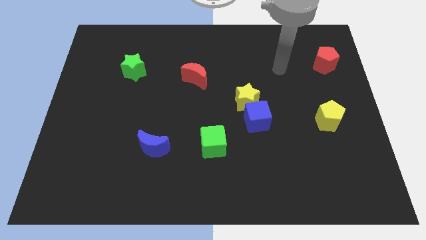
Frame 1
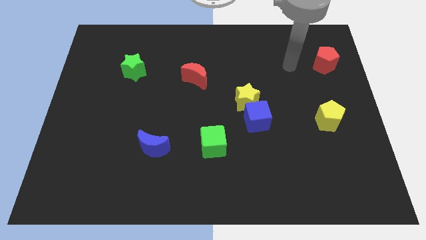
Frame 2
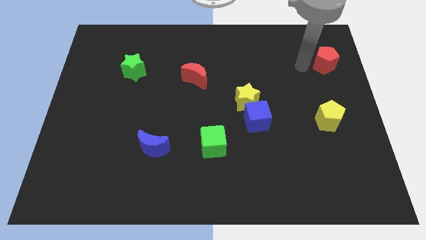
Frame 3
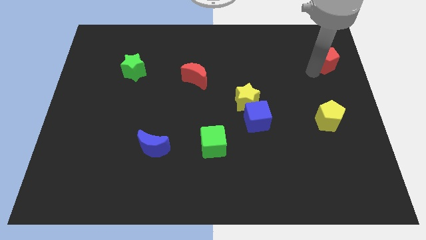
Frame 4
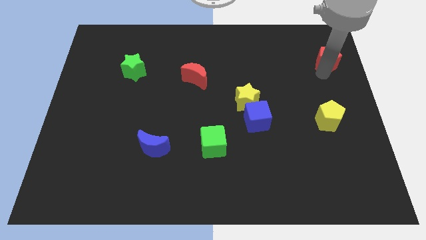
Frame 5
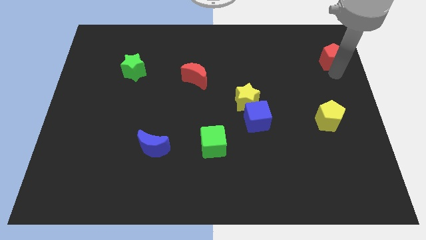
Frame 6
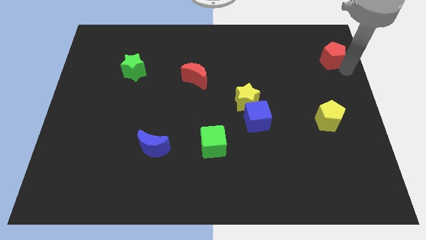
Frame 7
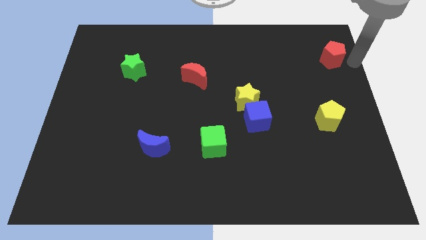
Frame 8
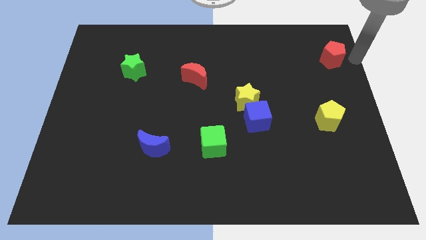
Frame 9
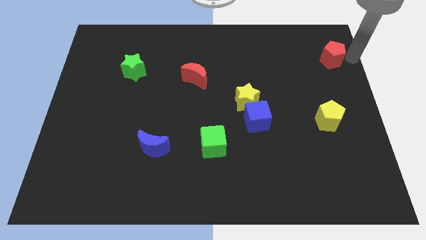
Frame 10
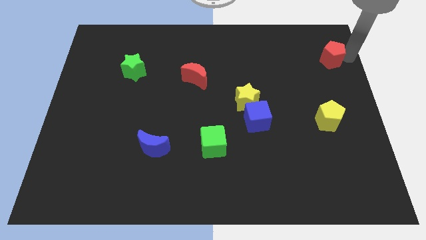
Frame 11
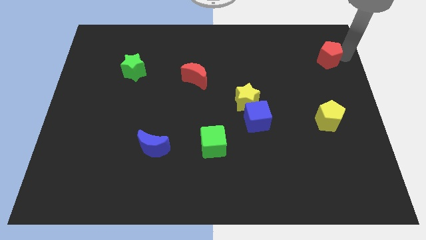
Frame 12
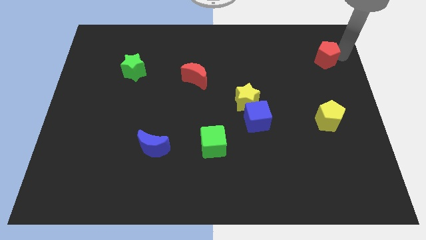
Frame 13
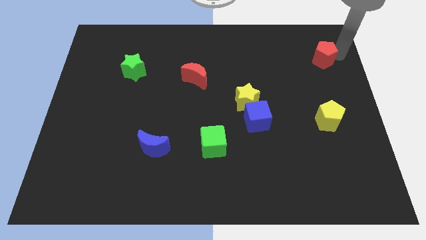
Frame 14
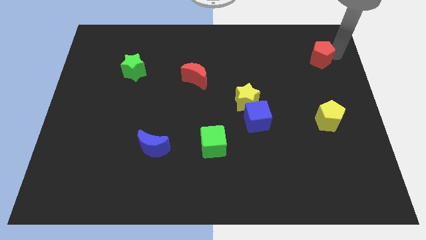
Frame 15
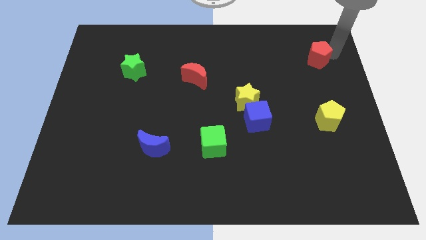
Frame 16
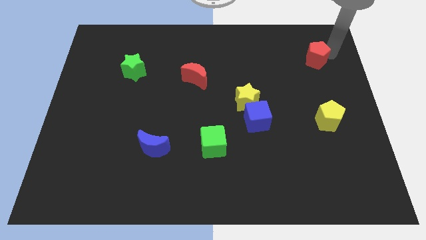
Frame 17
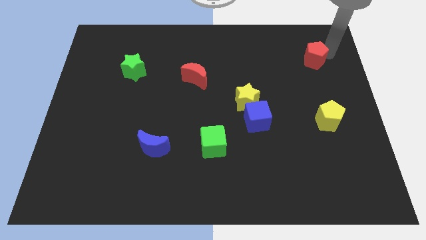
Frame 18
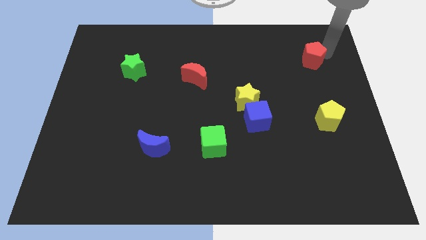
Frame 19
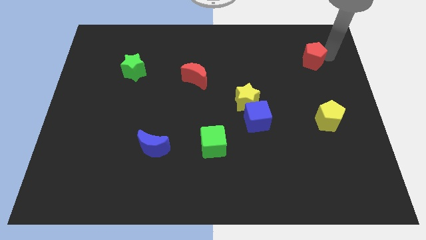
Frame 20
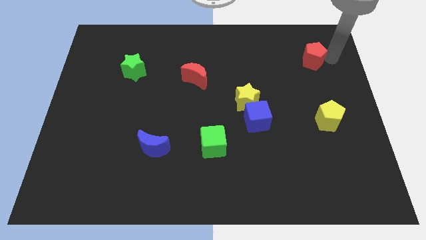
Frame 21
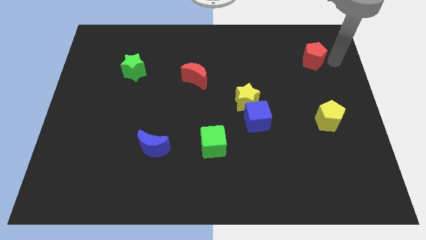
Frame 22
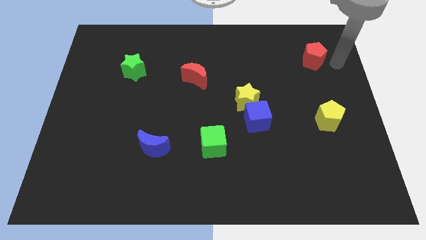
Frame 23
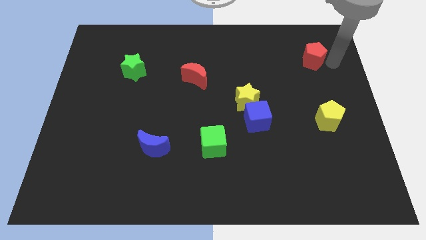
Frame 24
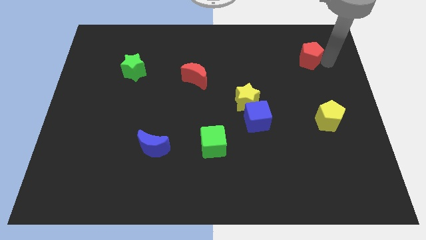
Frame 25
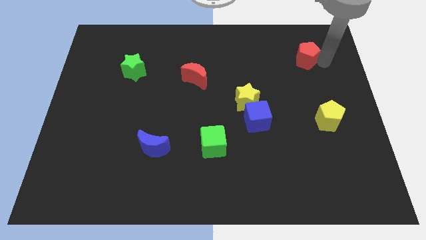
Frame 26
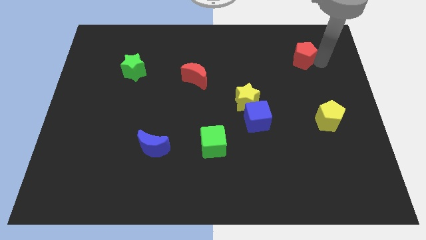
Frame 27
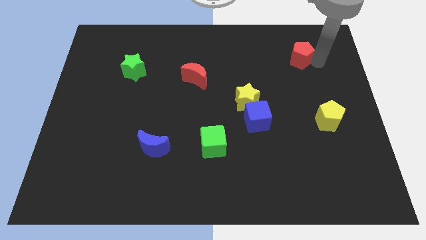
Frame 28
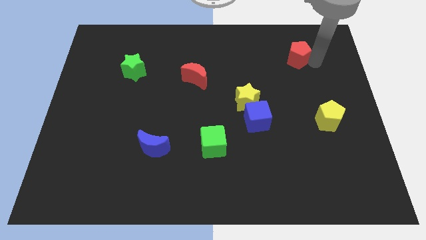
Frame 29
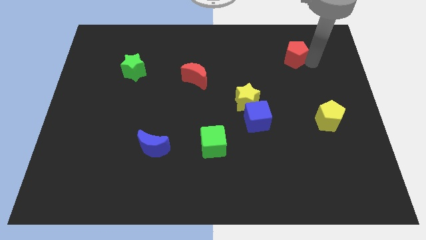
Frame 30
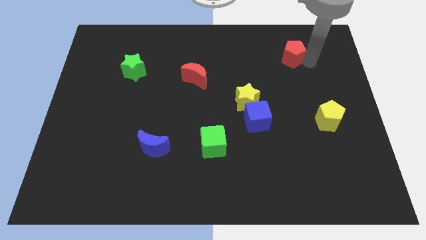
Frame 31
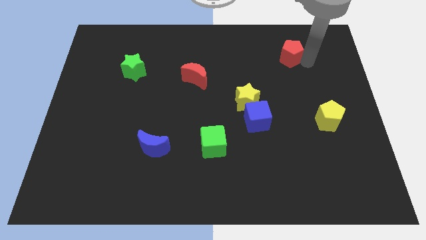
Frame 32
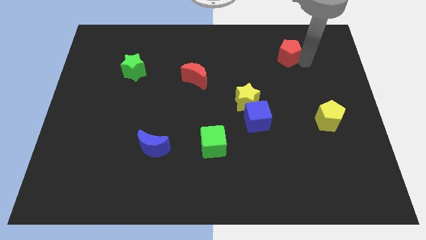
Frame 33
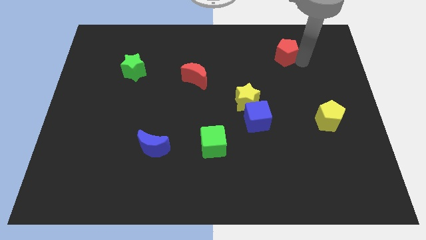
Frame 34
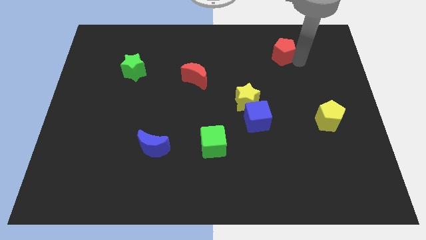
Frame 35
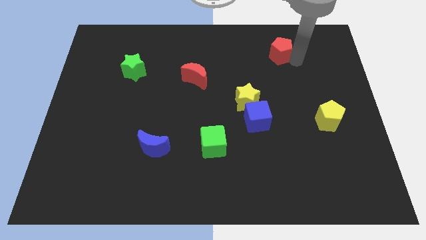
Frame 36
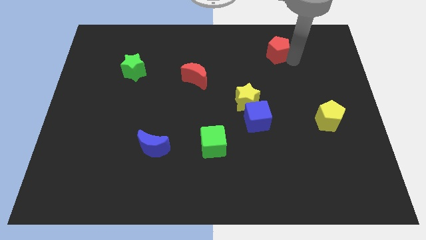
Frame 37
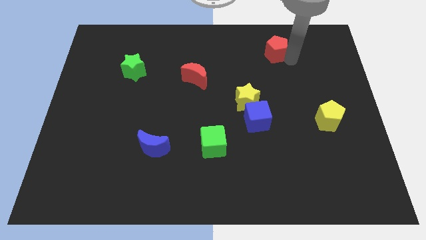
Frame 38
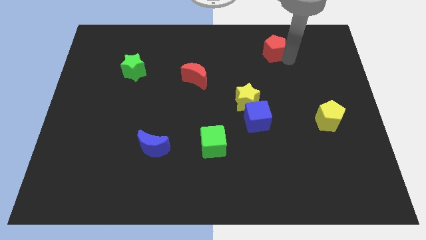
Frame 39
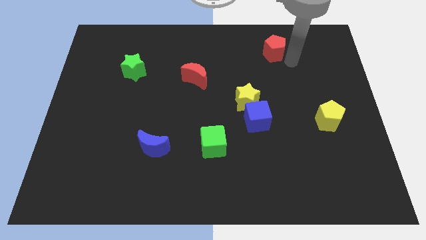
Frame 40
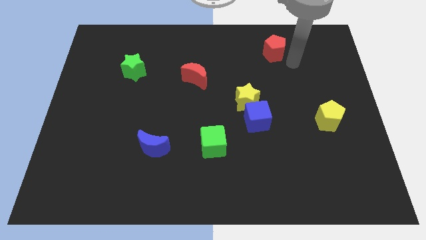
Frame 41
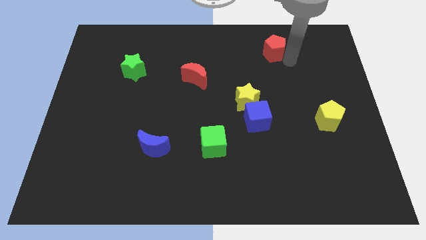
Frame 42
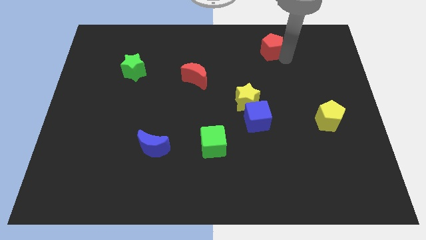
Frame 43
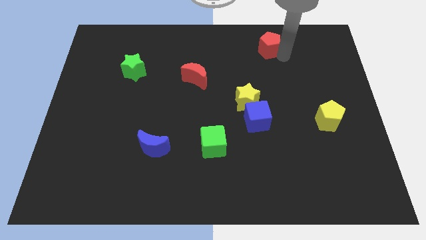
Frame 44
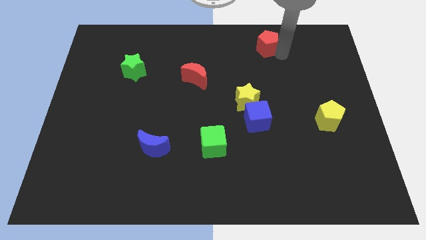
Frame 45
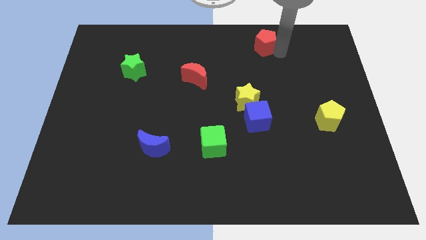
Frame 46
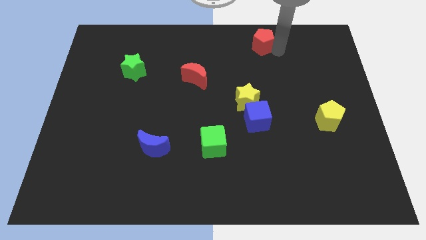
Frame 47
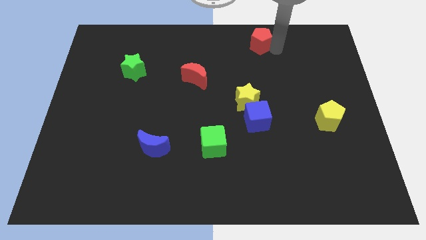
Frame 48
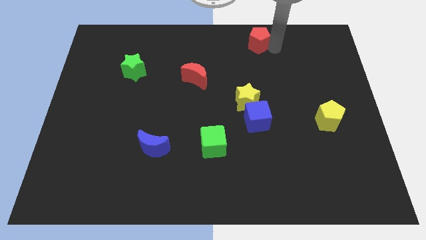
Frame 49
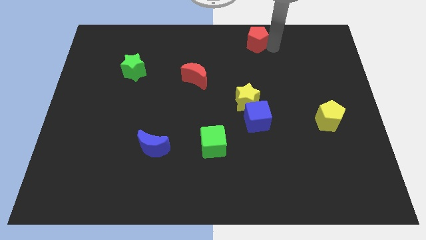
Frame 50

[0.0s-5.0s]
push the red pentagon to the towards your base

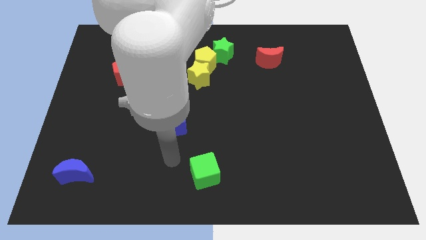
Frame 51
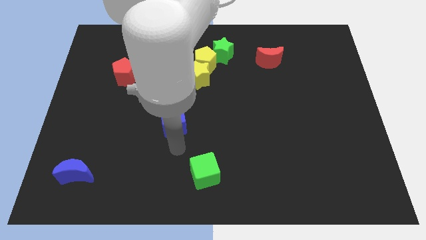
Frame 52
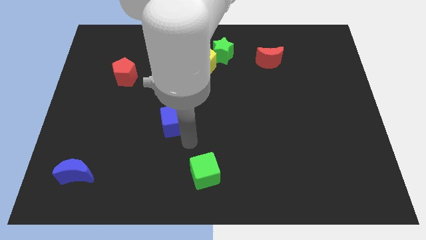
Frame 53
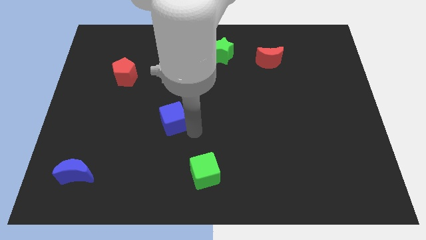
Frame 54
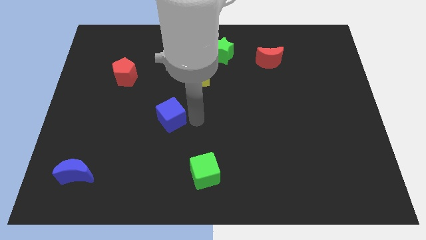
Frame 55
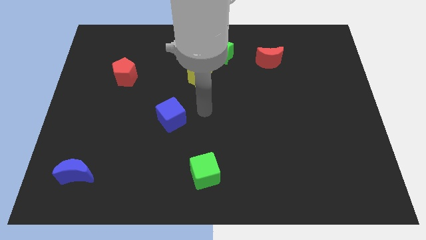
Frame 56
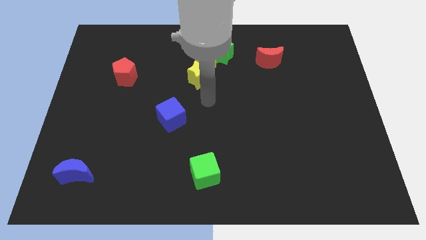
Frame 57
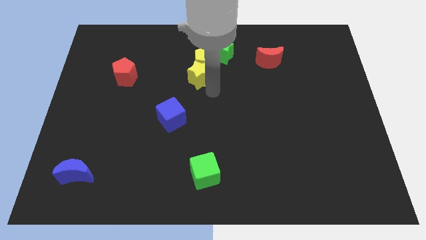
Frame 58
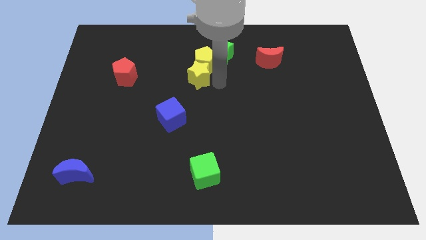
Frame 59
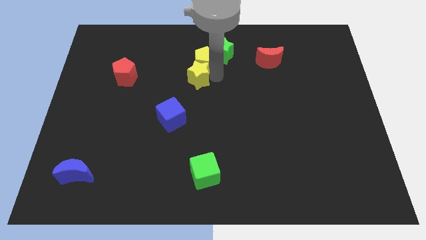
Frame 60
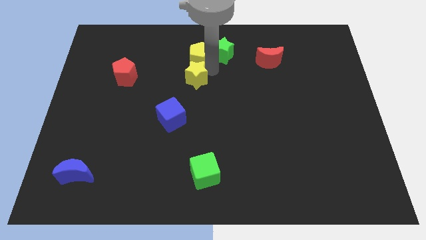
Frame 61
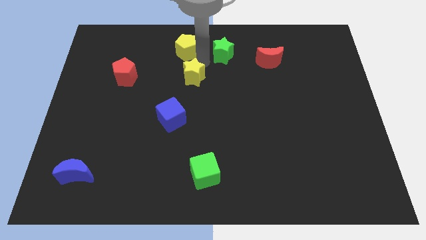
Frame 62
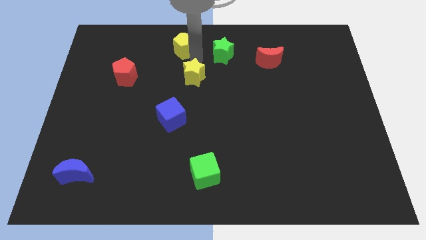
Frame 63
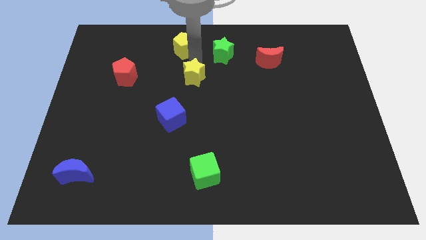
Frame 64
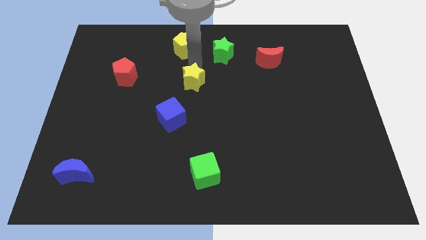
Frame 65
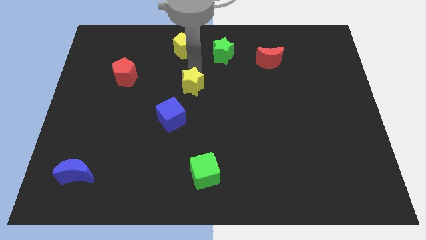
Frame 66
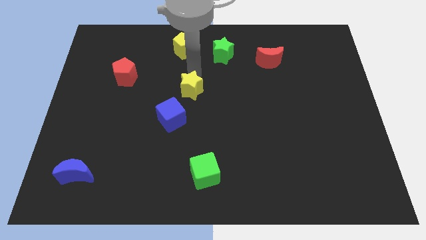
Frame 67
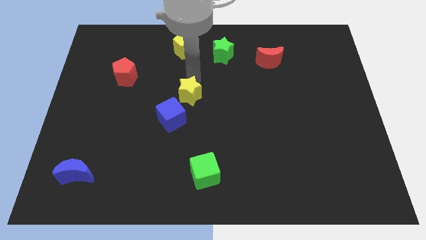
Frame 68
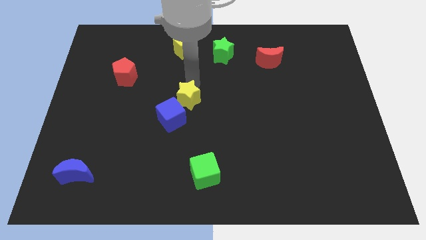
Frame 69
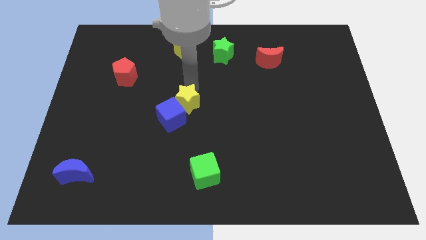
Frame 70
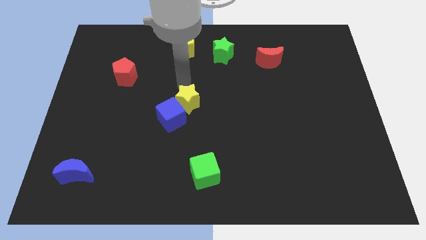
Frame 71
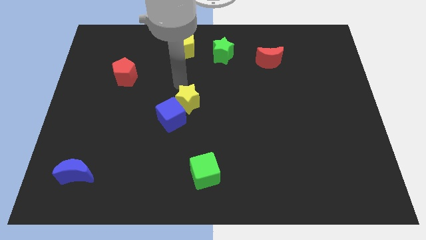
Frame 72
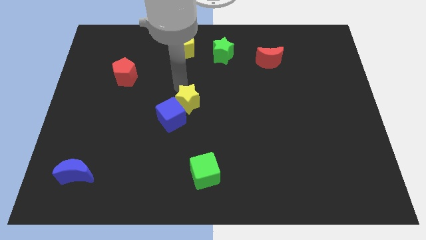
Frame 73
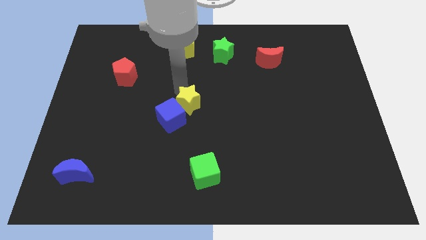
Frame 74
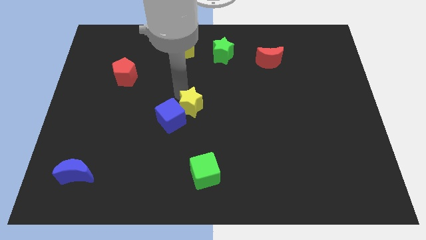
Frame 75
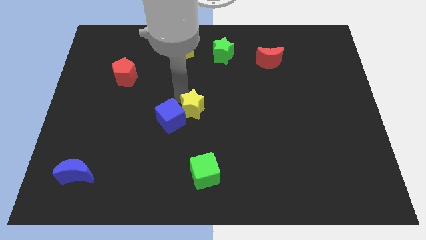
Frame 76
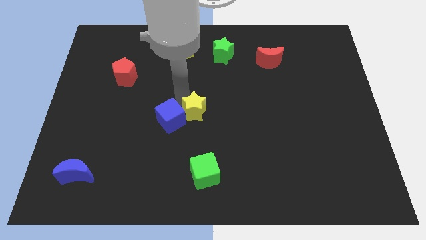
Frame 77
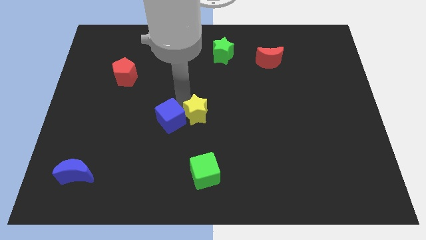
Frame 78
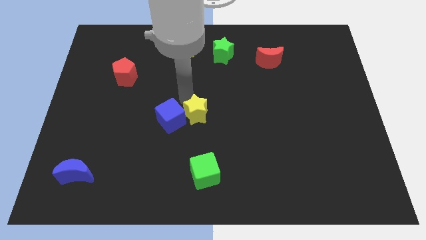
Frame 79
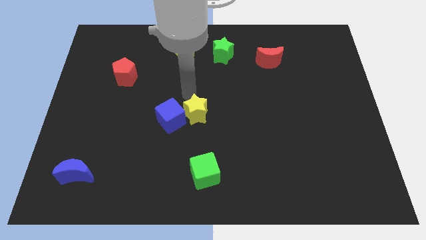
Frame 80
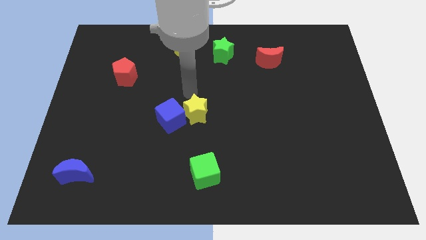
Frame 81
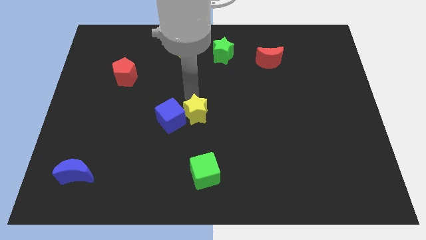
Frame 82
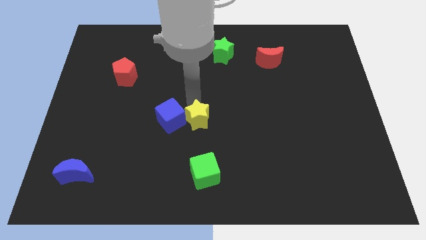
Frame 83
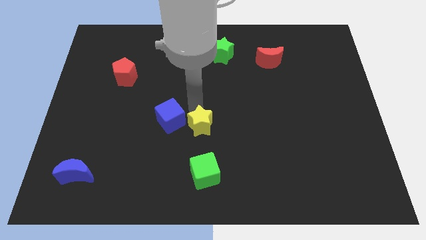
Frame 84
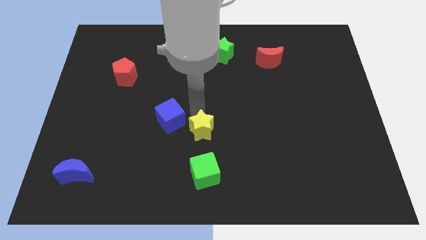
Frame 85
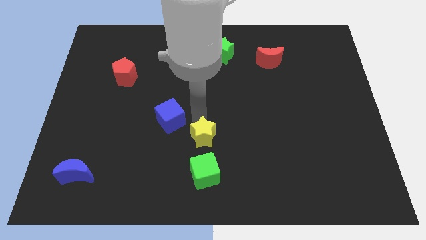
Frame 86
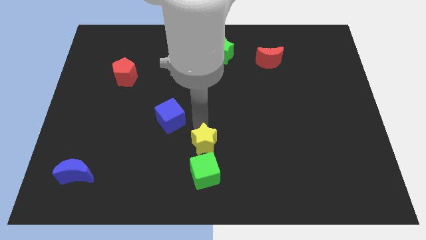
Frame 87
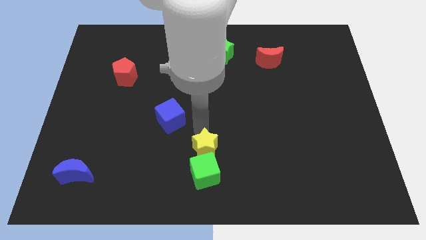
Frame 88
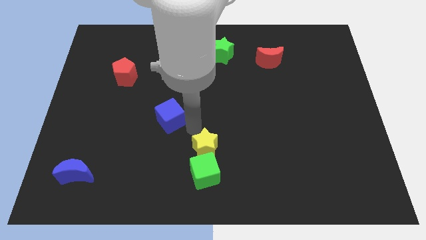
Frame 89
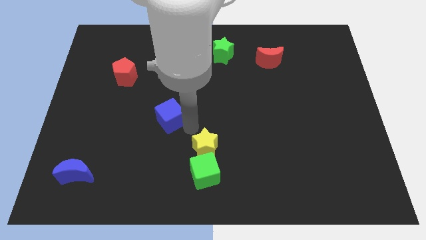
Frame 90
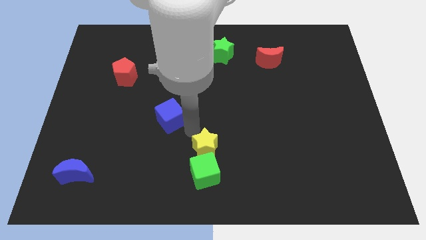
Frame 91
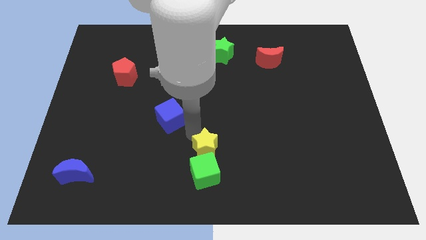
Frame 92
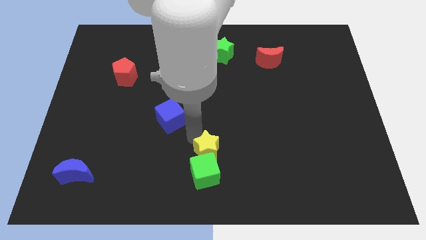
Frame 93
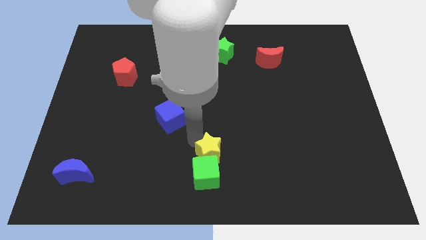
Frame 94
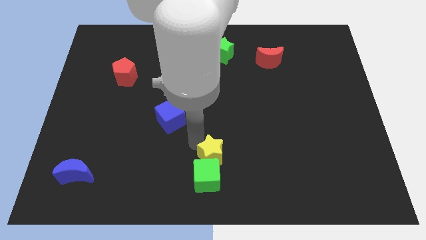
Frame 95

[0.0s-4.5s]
push the yellow star to the bottom
